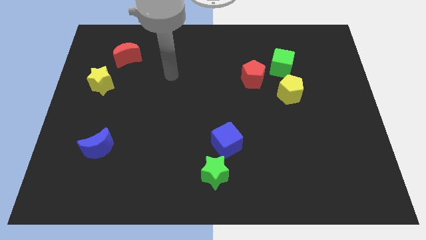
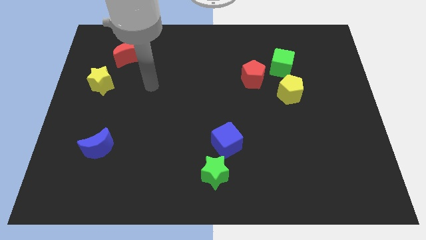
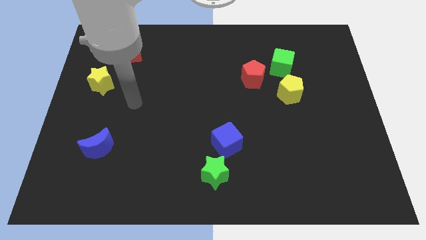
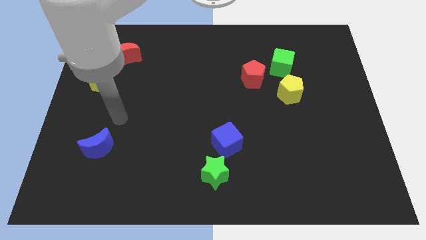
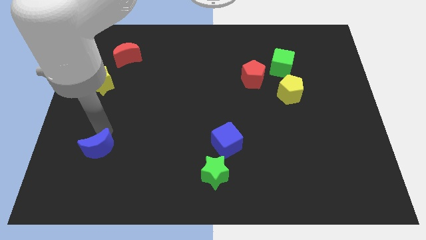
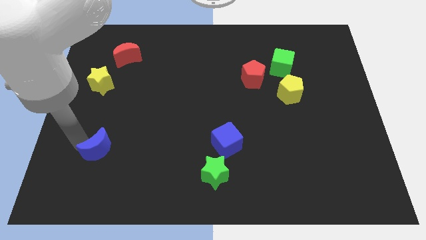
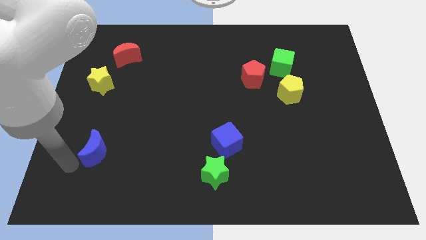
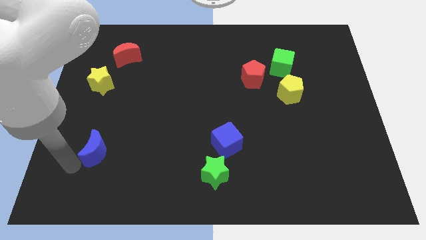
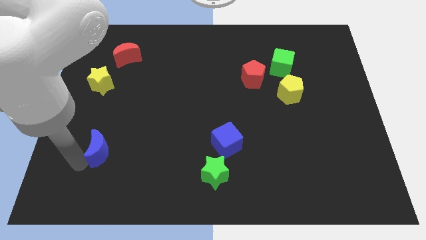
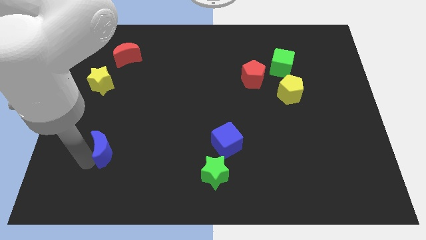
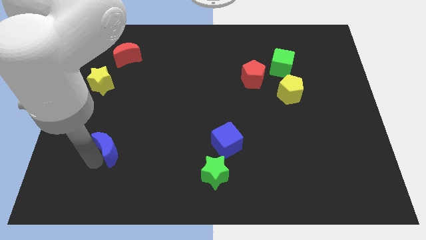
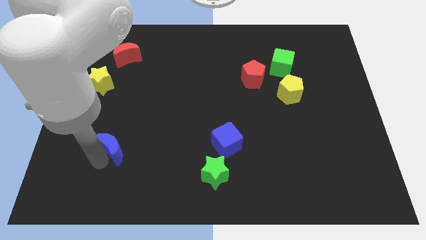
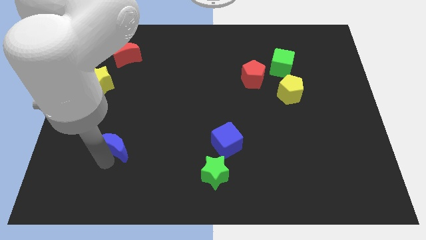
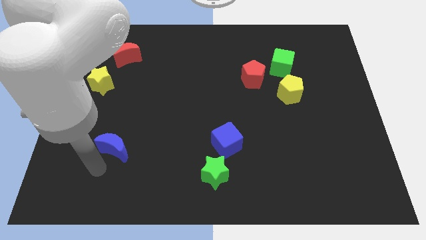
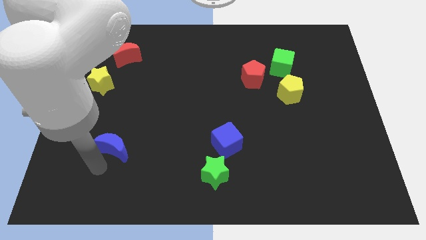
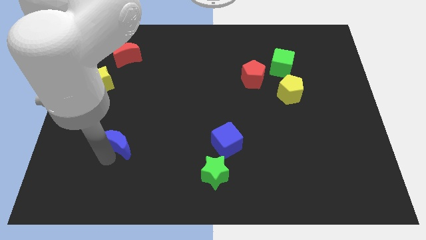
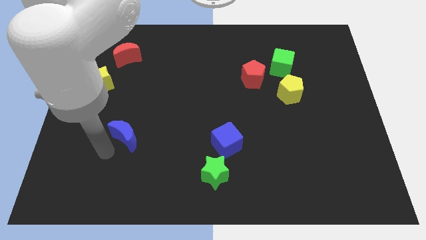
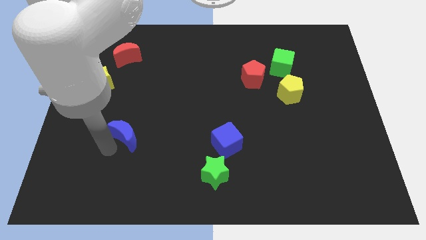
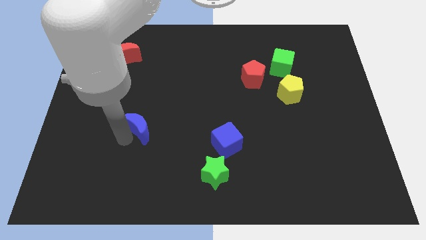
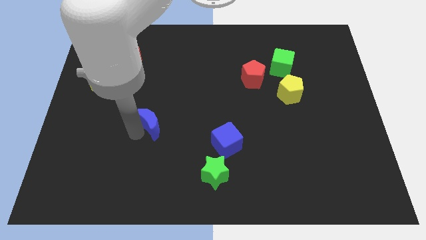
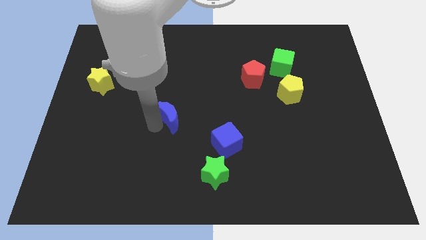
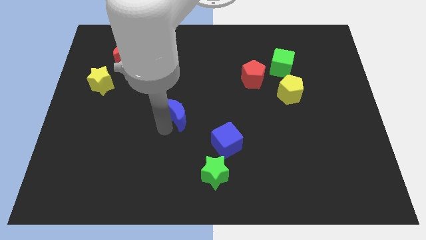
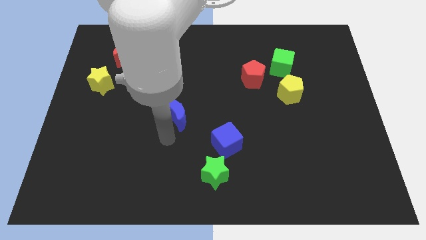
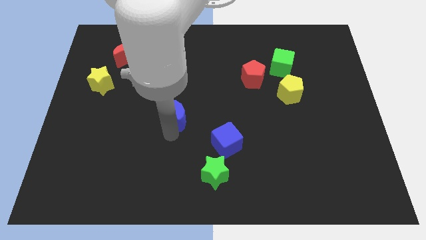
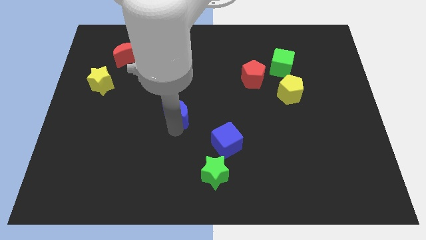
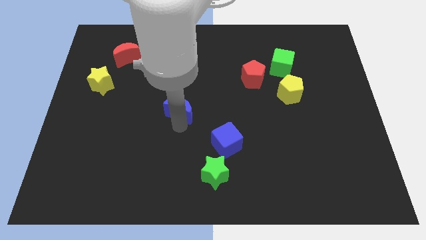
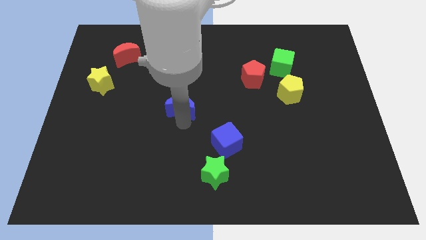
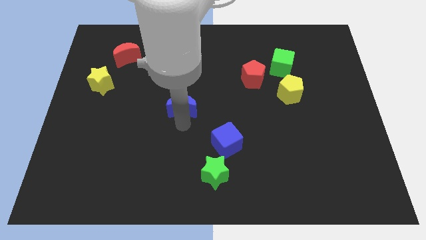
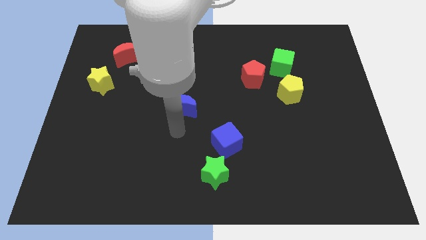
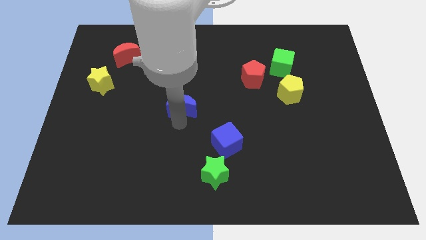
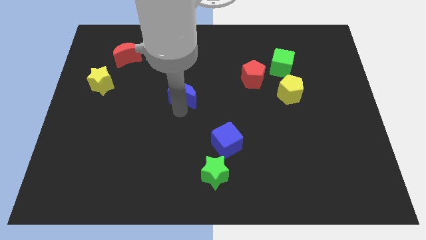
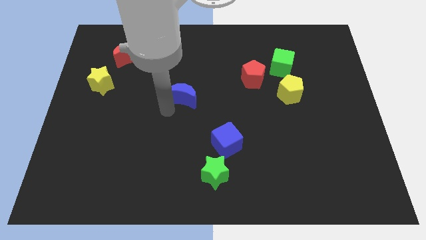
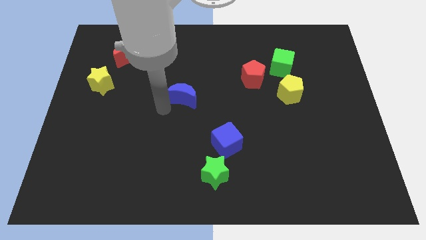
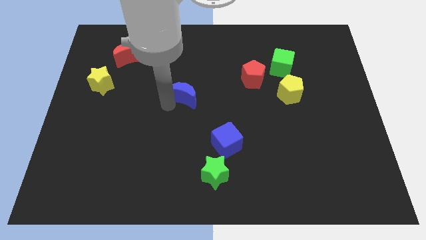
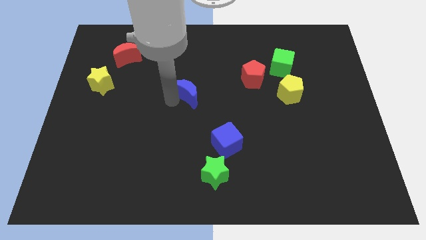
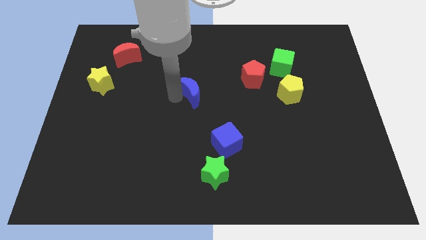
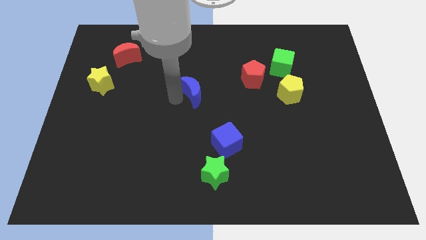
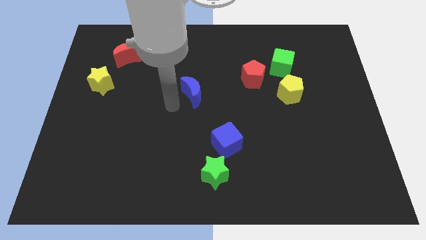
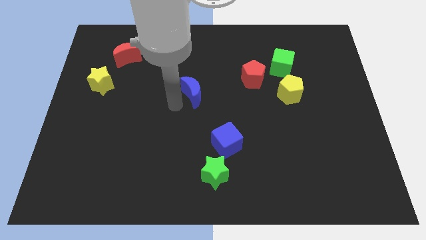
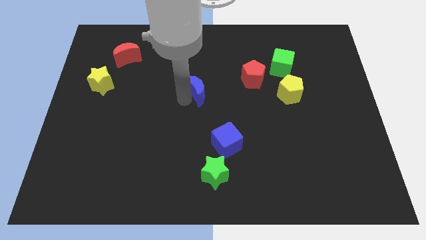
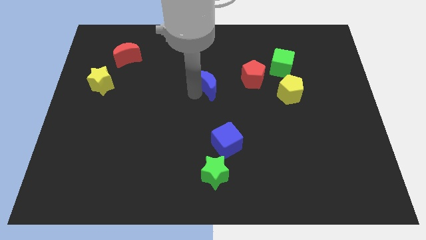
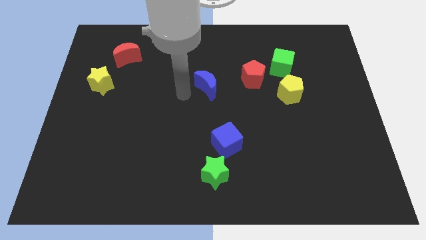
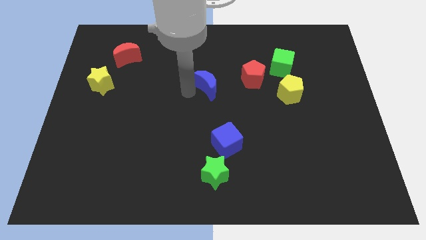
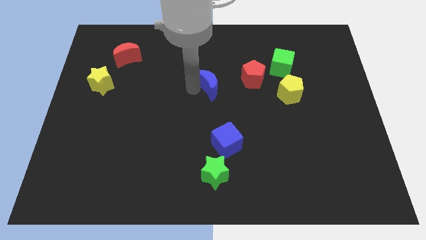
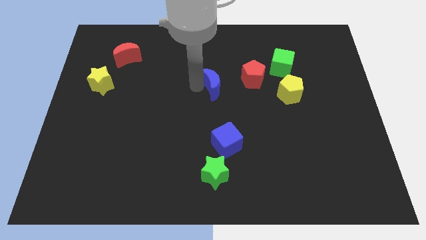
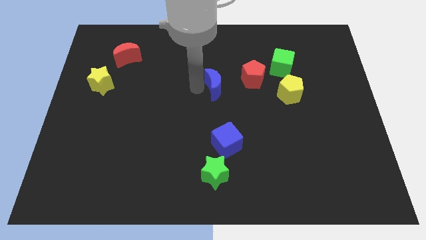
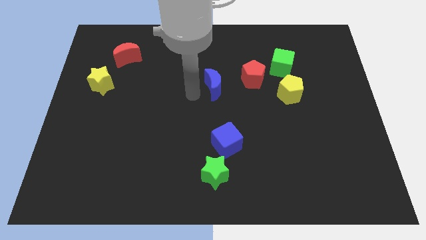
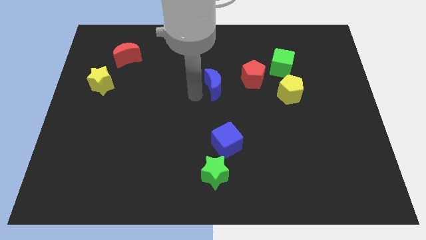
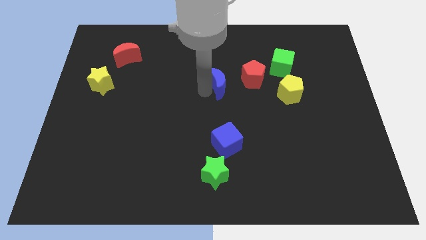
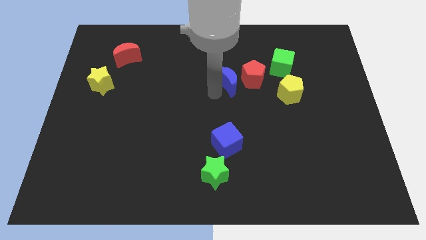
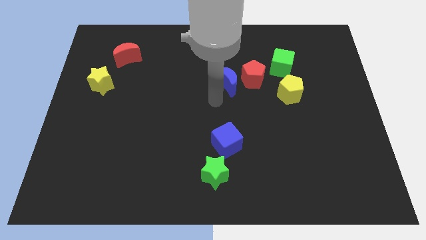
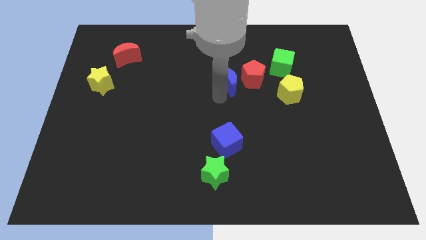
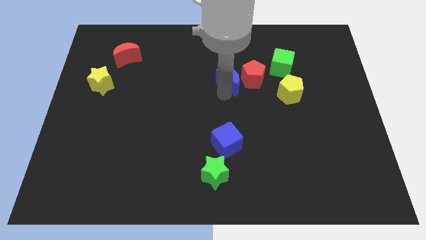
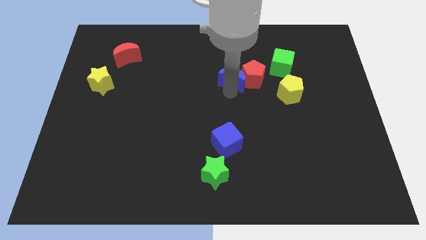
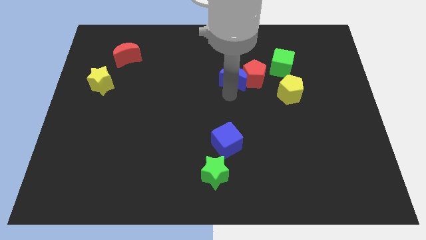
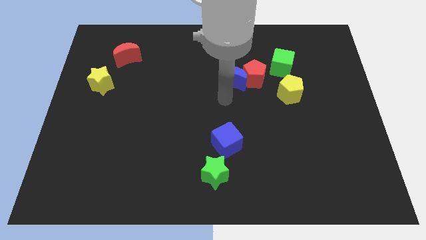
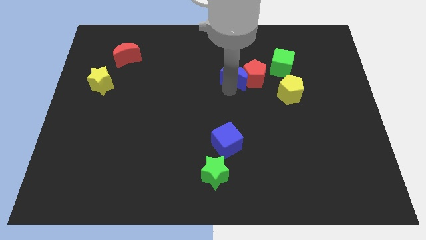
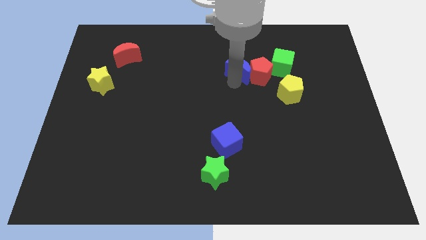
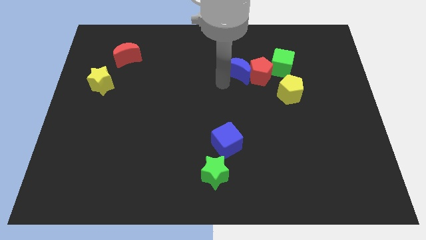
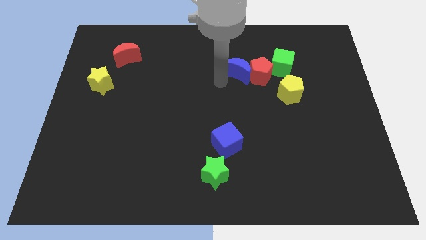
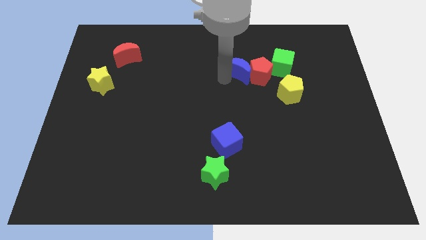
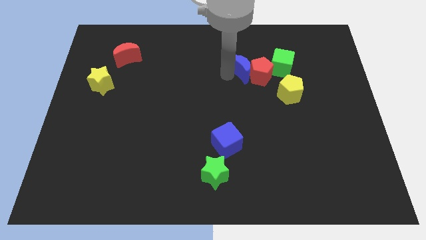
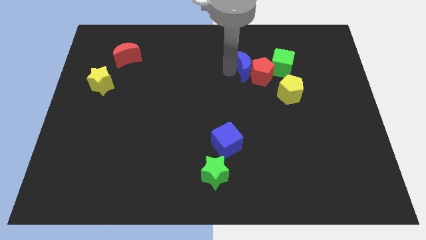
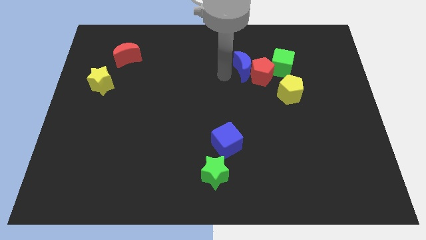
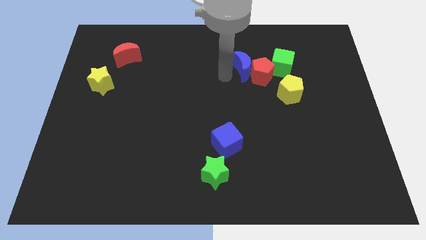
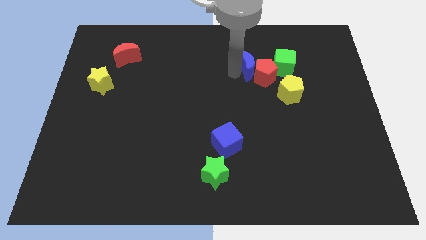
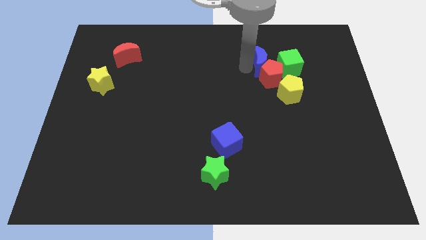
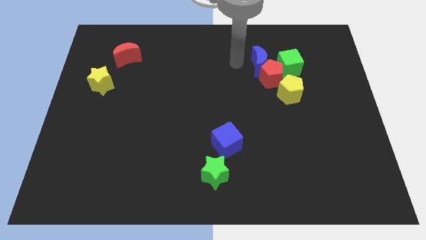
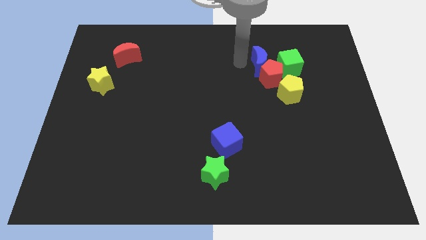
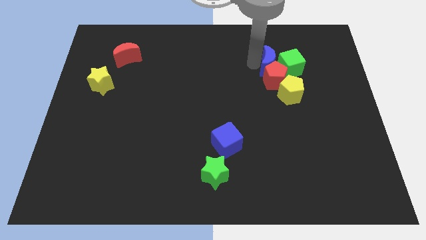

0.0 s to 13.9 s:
move the blue moon towards the green cube
